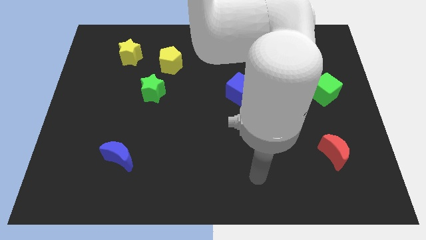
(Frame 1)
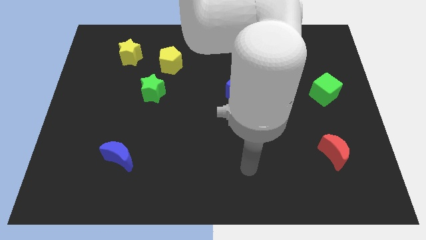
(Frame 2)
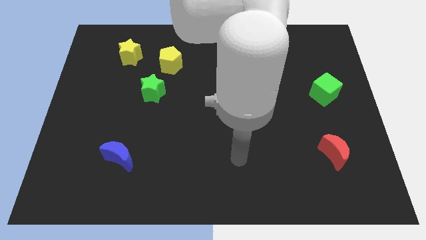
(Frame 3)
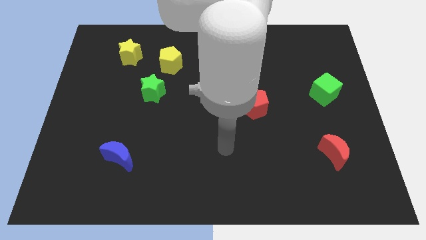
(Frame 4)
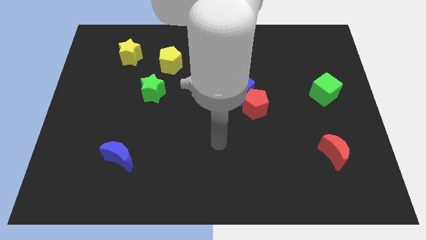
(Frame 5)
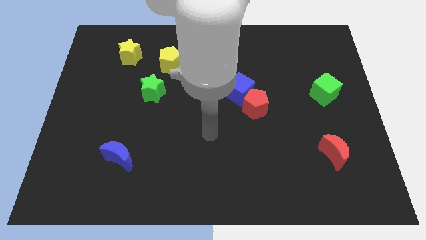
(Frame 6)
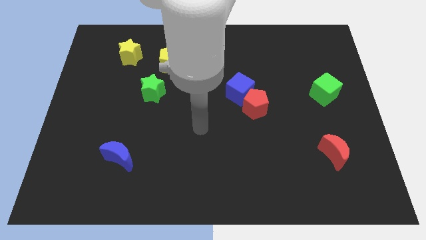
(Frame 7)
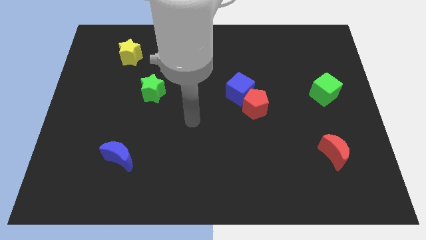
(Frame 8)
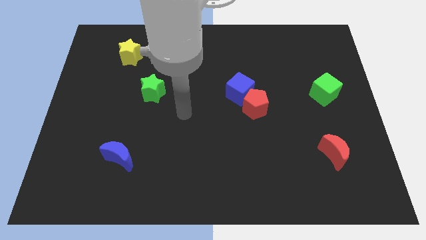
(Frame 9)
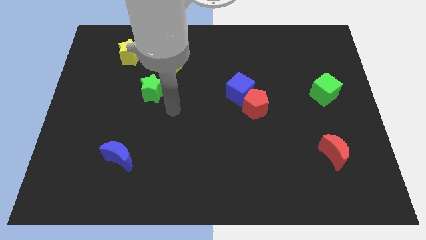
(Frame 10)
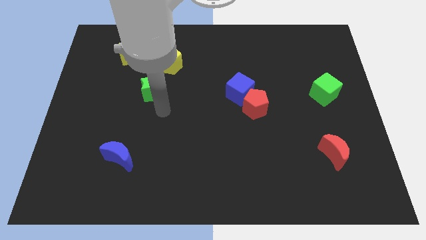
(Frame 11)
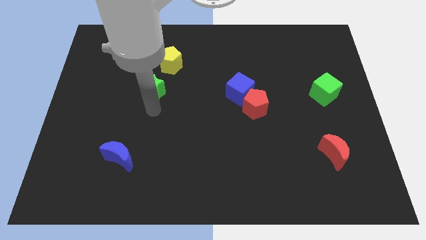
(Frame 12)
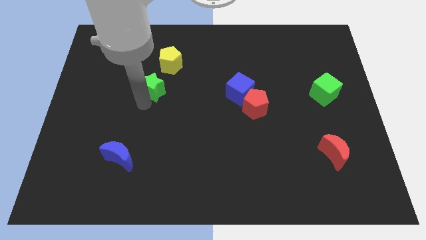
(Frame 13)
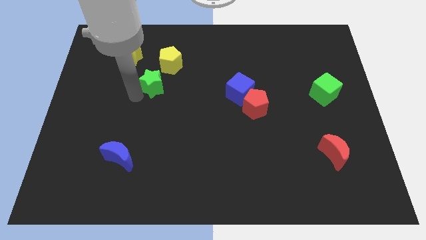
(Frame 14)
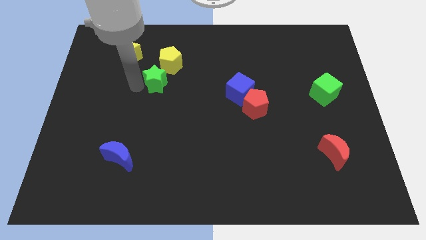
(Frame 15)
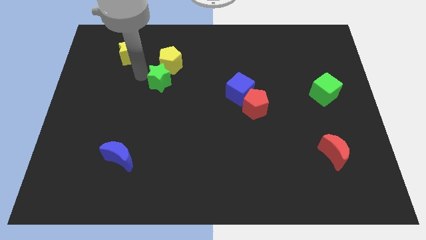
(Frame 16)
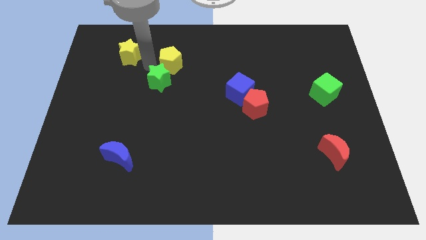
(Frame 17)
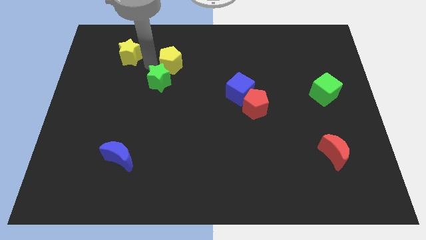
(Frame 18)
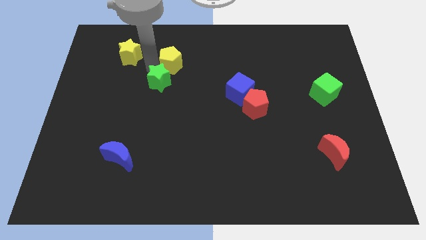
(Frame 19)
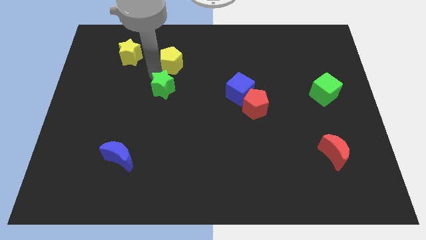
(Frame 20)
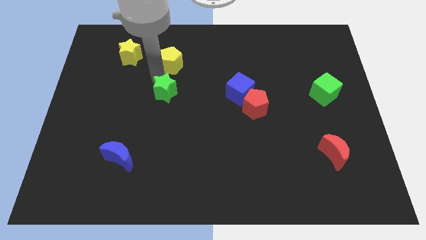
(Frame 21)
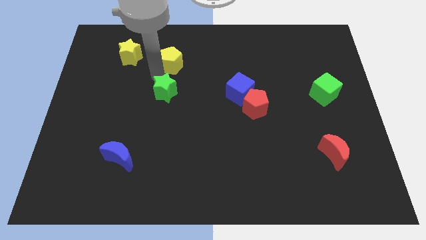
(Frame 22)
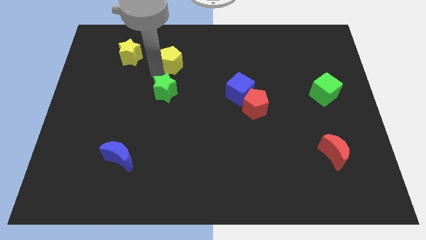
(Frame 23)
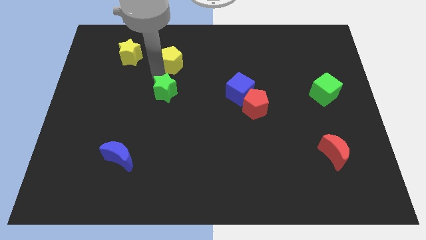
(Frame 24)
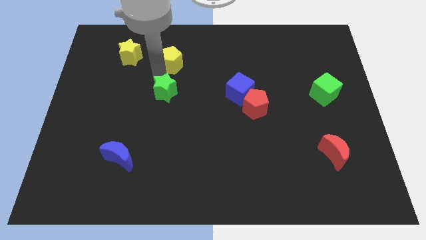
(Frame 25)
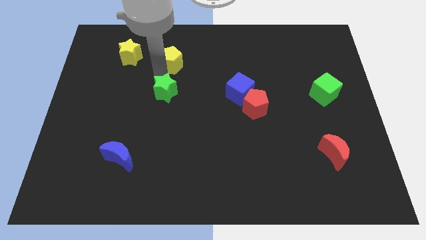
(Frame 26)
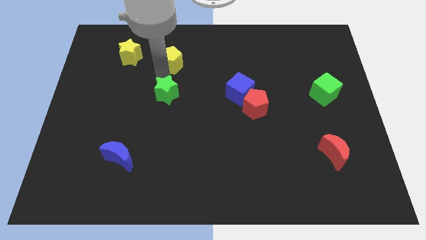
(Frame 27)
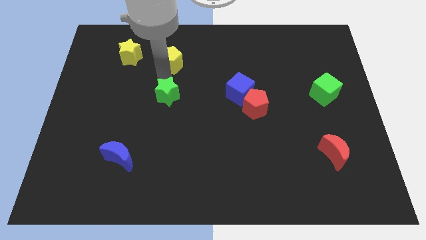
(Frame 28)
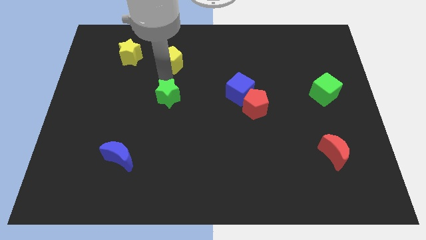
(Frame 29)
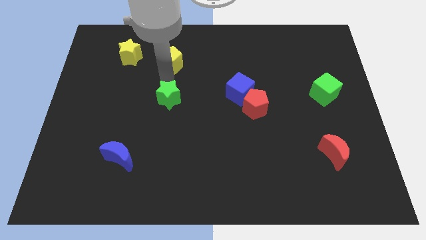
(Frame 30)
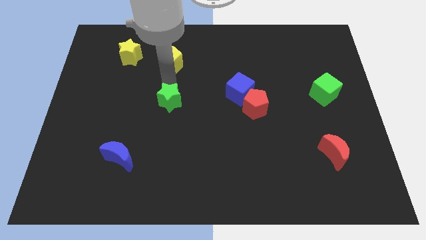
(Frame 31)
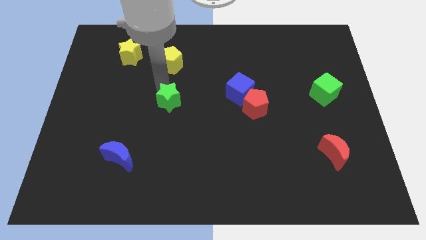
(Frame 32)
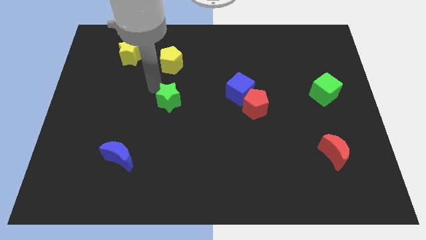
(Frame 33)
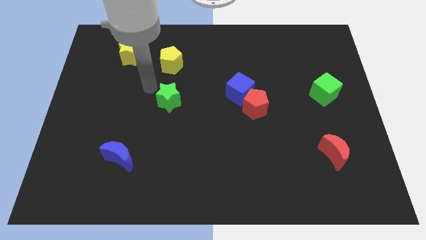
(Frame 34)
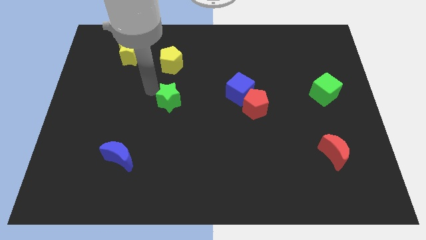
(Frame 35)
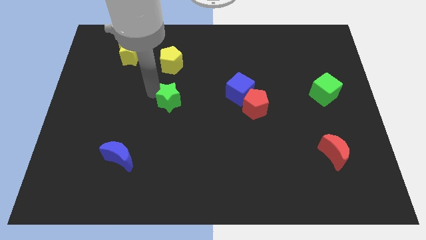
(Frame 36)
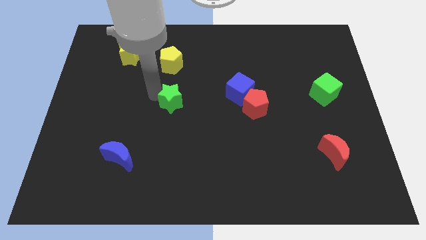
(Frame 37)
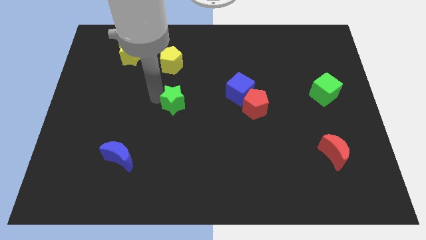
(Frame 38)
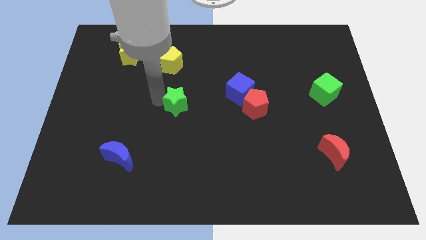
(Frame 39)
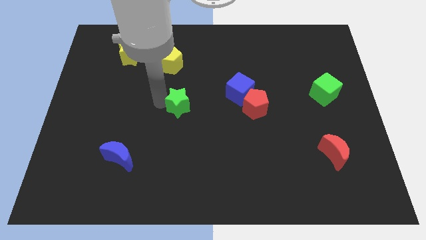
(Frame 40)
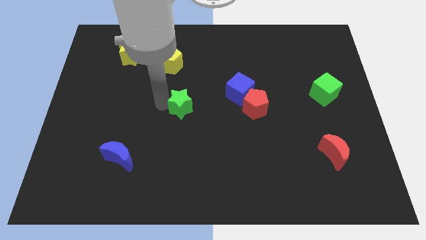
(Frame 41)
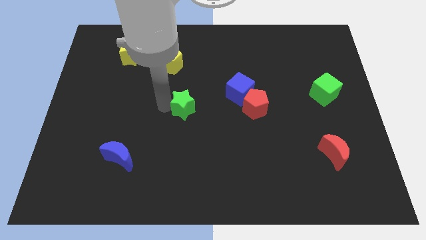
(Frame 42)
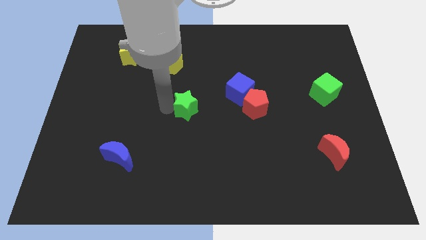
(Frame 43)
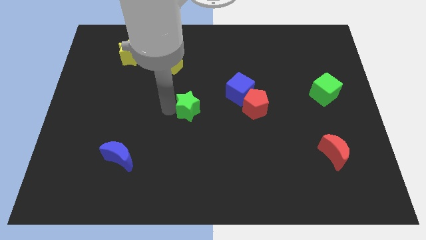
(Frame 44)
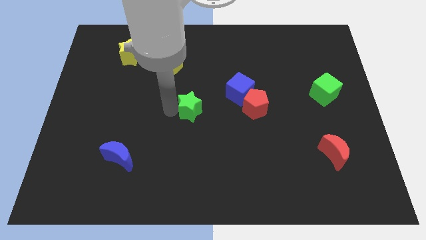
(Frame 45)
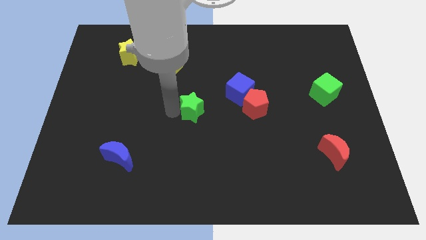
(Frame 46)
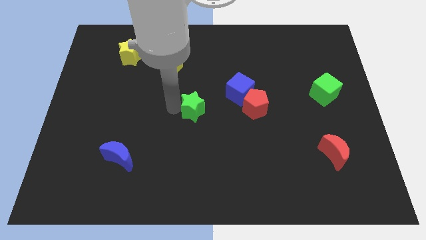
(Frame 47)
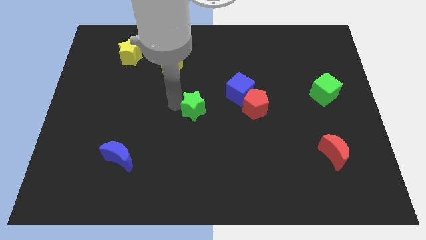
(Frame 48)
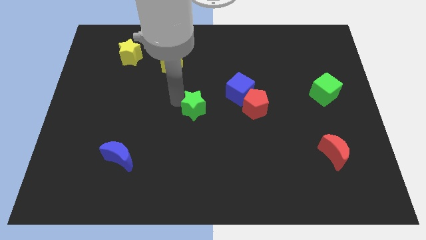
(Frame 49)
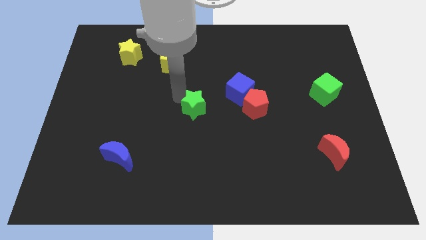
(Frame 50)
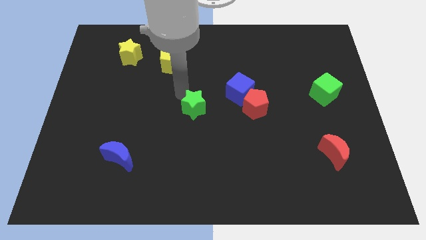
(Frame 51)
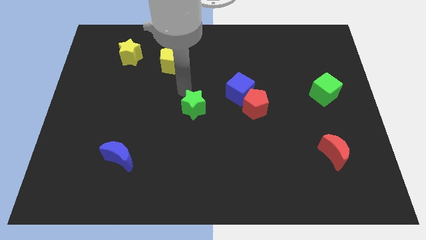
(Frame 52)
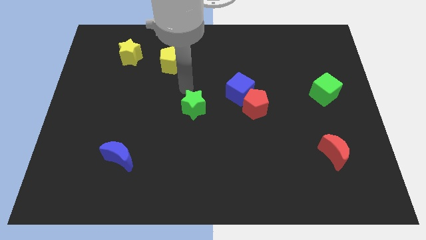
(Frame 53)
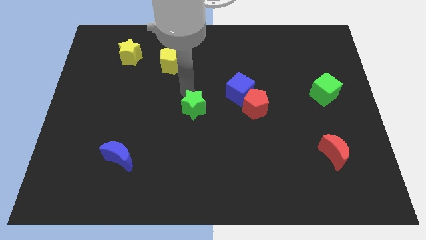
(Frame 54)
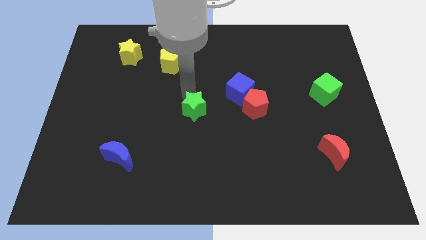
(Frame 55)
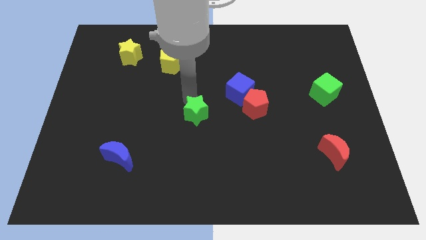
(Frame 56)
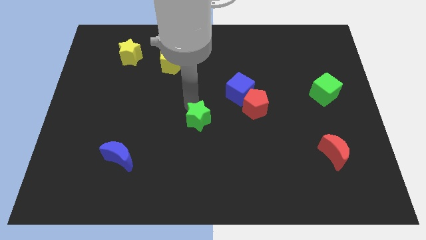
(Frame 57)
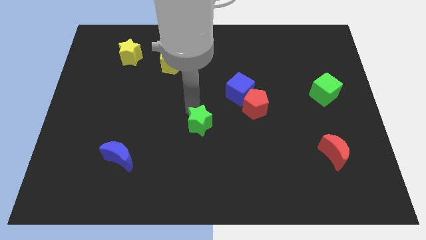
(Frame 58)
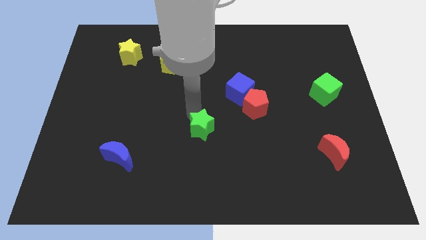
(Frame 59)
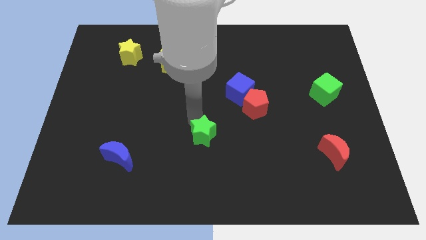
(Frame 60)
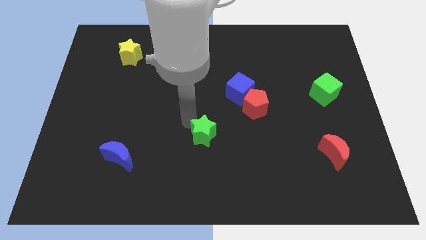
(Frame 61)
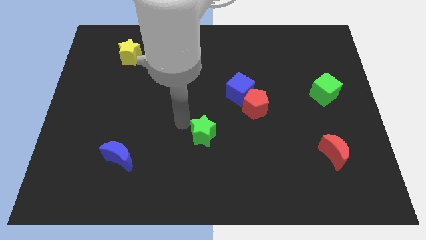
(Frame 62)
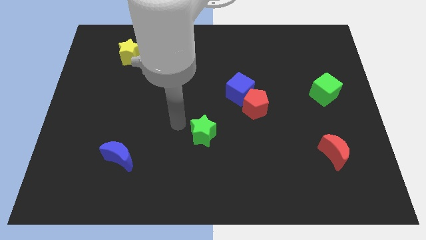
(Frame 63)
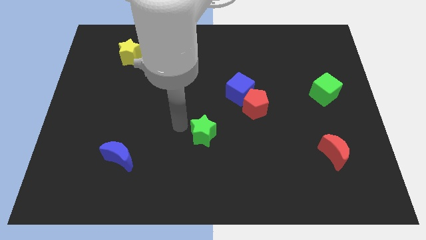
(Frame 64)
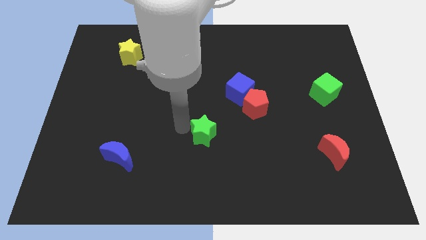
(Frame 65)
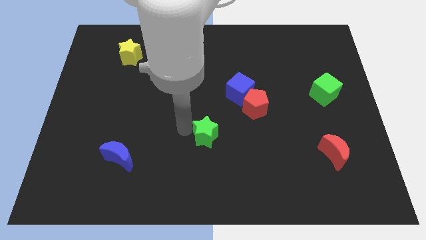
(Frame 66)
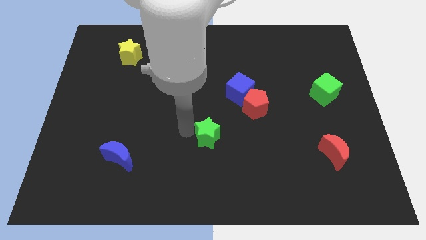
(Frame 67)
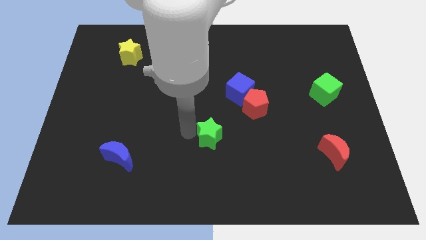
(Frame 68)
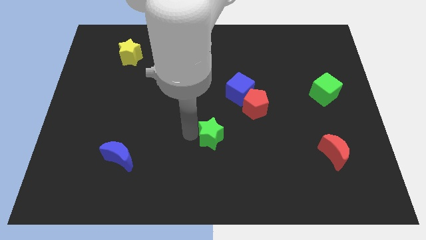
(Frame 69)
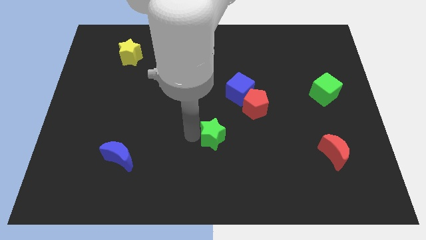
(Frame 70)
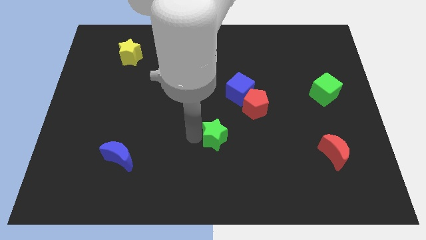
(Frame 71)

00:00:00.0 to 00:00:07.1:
push the green star down and right diagonally

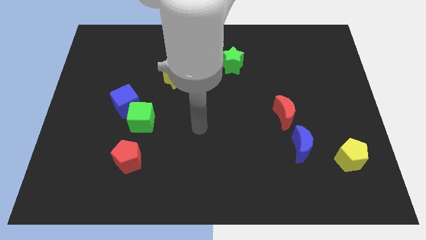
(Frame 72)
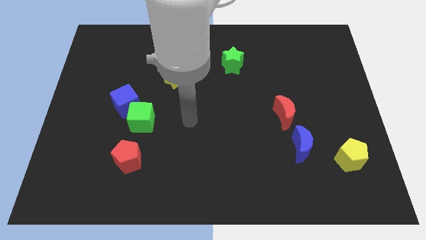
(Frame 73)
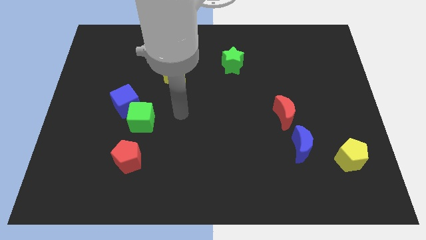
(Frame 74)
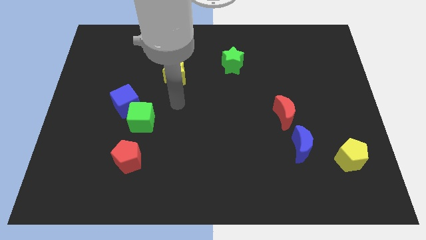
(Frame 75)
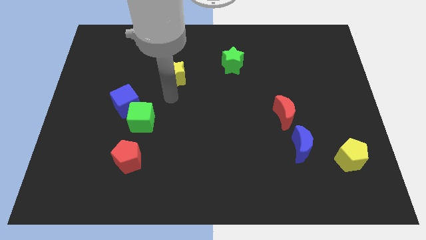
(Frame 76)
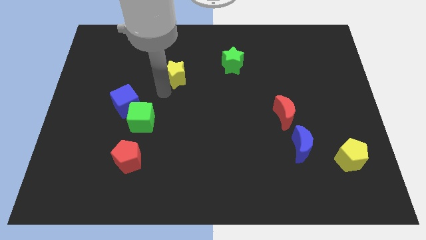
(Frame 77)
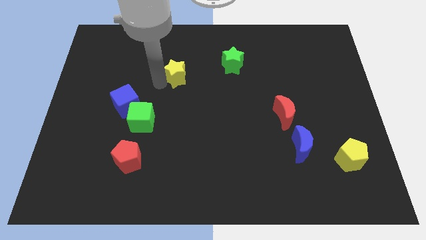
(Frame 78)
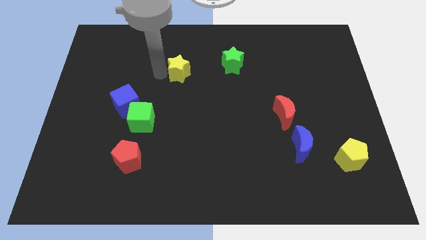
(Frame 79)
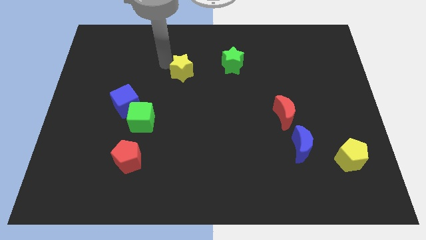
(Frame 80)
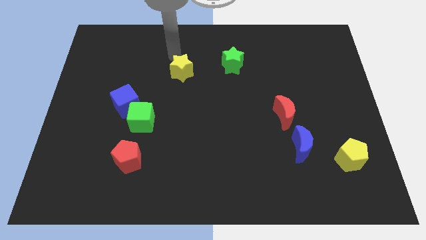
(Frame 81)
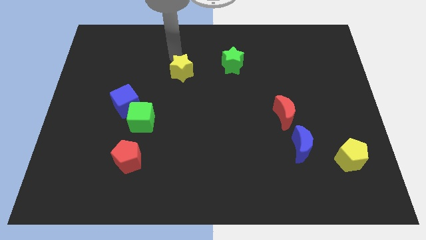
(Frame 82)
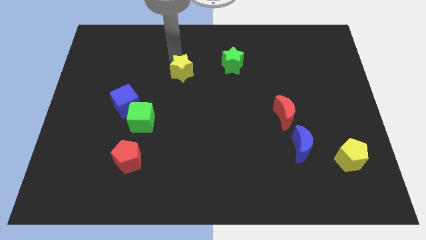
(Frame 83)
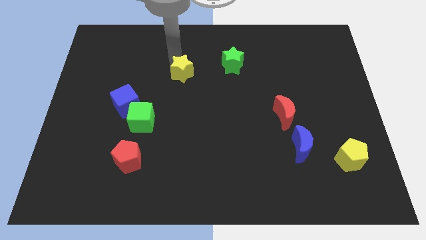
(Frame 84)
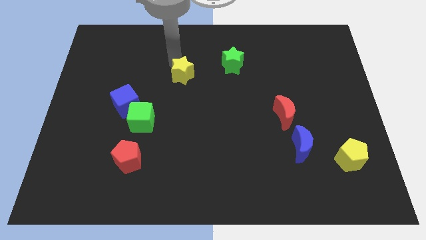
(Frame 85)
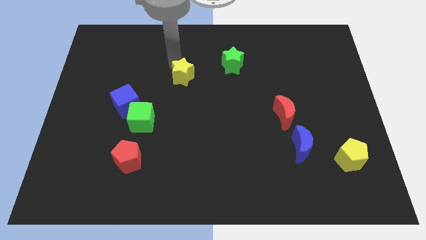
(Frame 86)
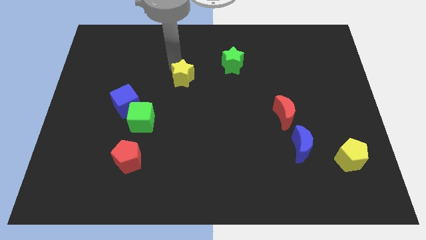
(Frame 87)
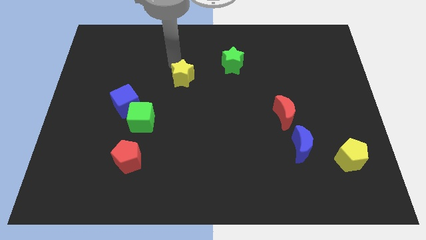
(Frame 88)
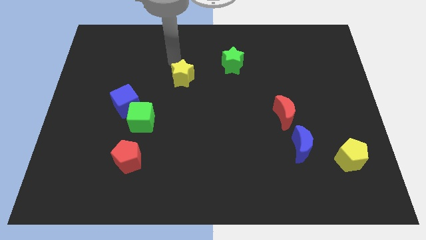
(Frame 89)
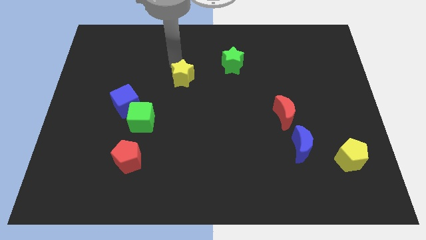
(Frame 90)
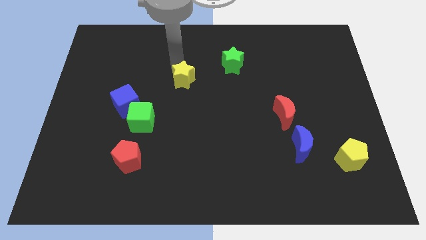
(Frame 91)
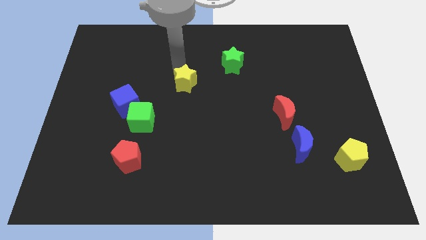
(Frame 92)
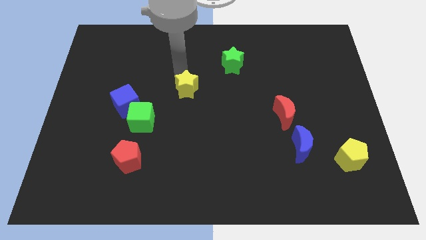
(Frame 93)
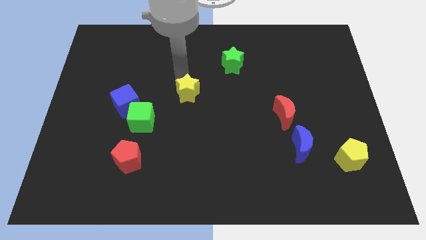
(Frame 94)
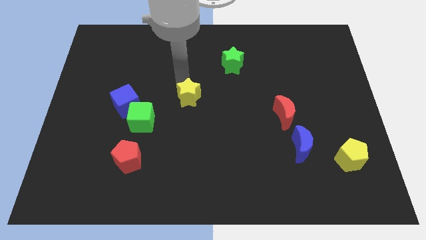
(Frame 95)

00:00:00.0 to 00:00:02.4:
move the yellow star downwards and then to the right a little bit
